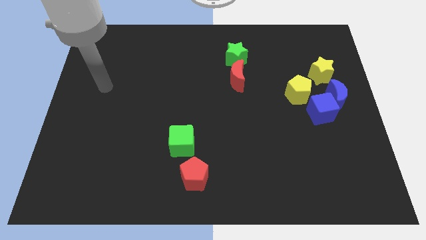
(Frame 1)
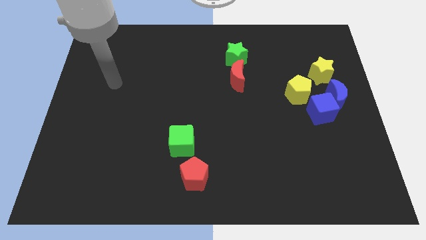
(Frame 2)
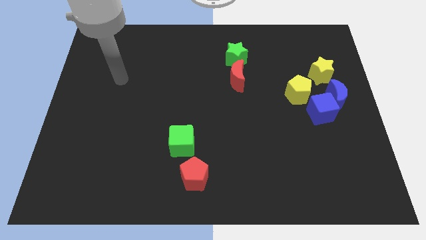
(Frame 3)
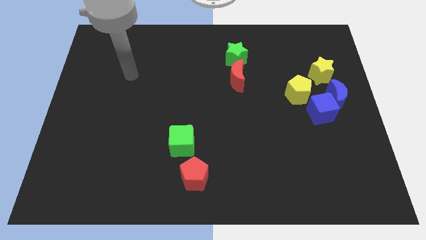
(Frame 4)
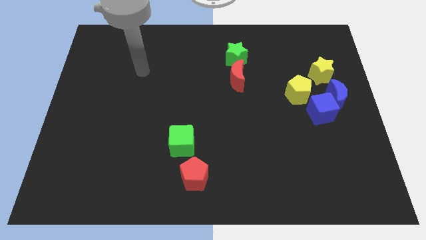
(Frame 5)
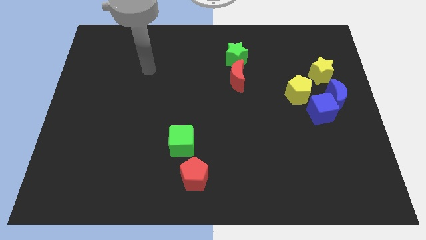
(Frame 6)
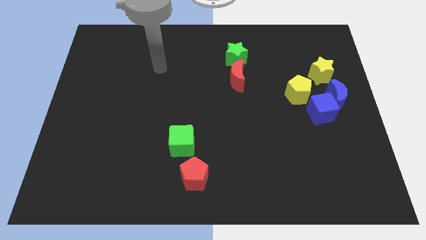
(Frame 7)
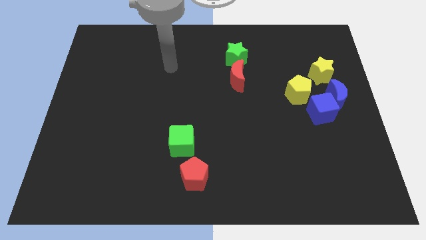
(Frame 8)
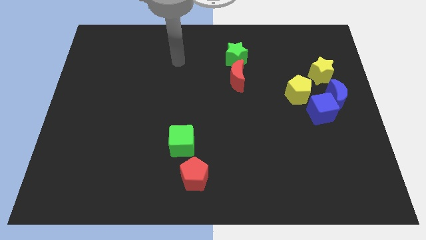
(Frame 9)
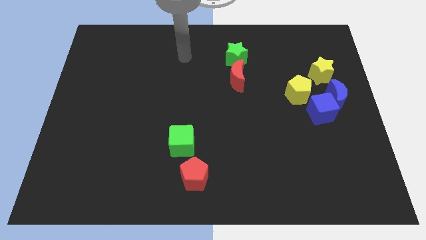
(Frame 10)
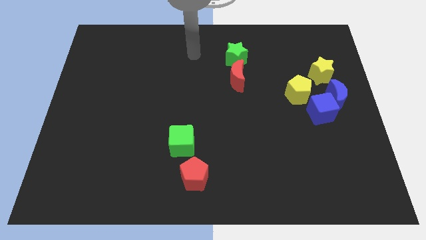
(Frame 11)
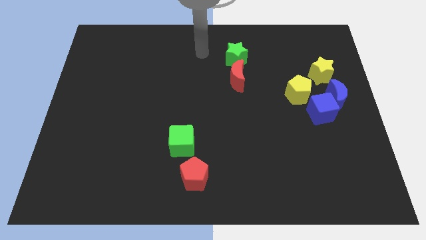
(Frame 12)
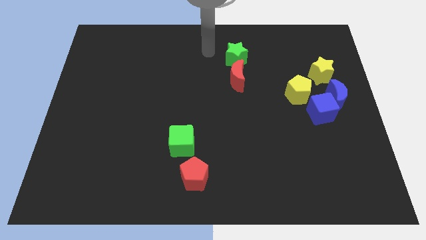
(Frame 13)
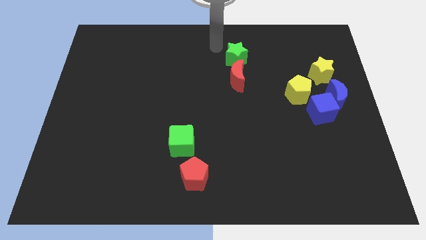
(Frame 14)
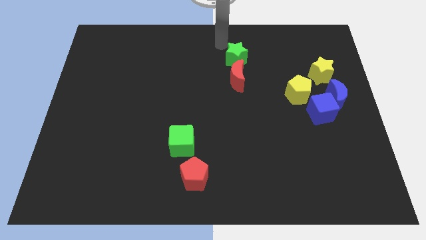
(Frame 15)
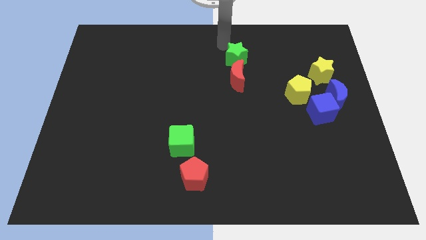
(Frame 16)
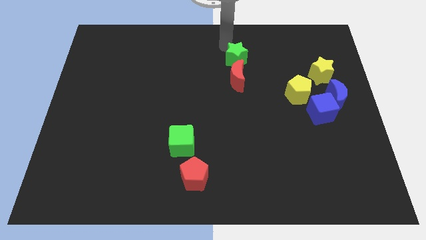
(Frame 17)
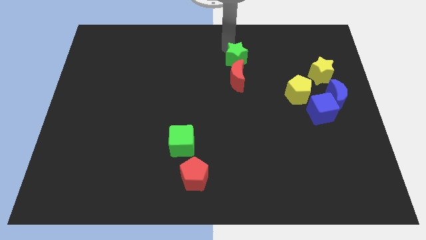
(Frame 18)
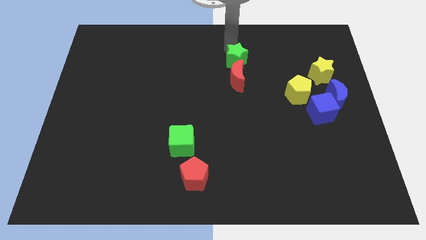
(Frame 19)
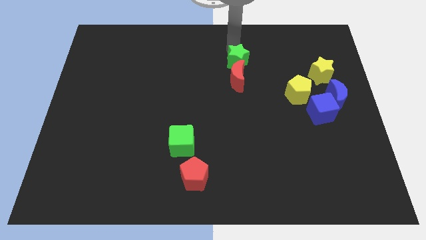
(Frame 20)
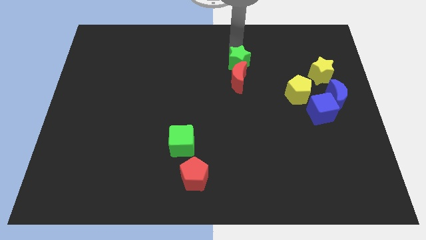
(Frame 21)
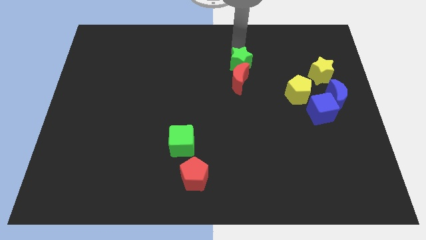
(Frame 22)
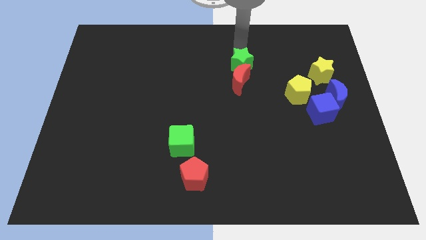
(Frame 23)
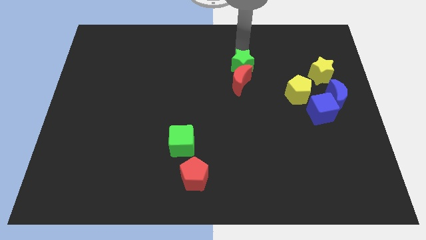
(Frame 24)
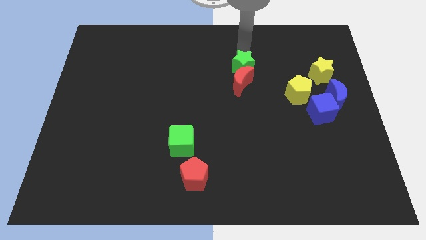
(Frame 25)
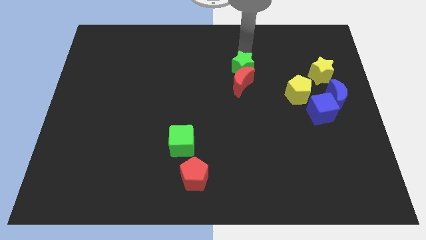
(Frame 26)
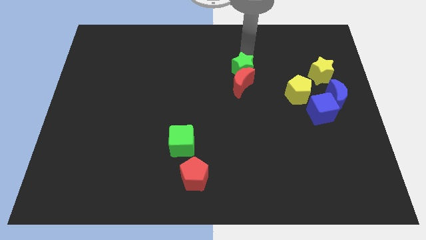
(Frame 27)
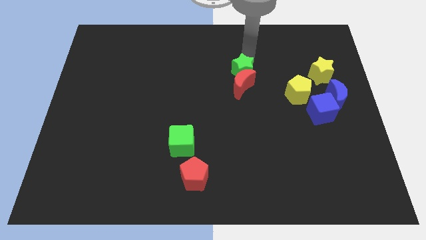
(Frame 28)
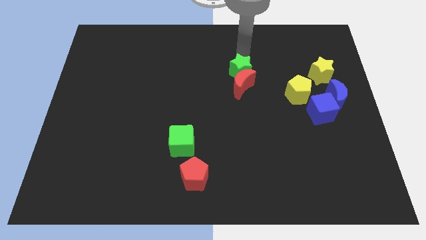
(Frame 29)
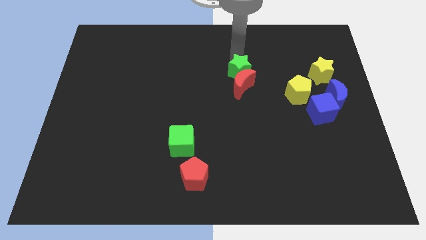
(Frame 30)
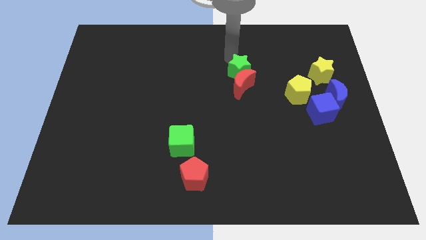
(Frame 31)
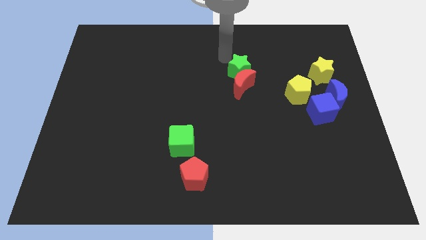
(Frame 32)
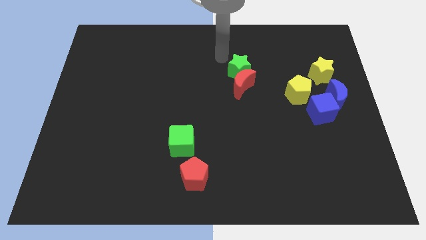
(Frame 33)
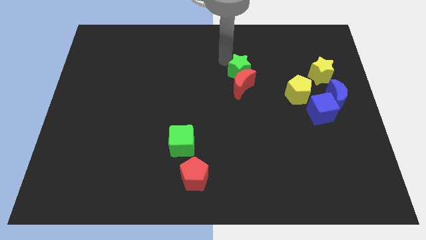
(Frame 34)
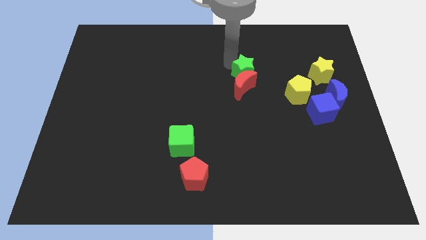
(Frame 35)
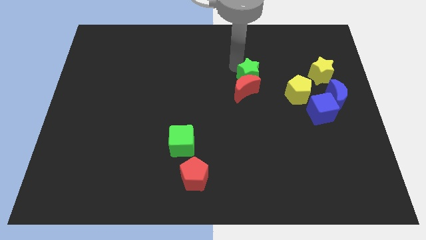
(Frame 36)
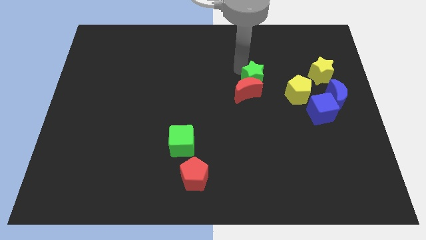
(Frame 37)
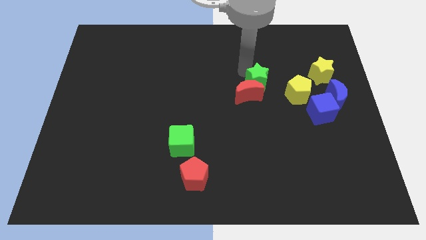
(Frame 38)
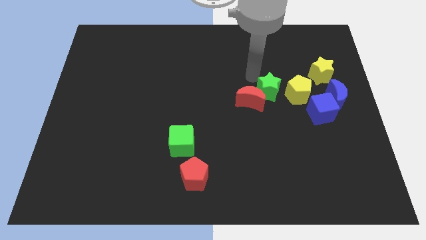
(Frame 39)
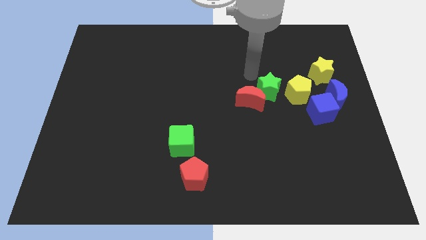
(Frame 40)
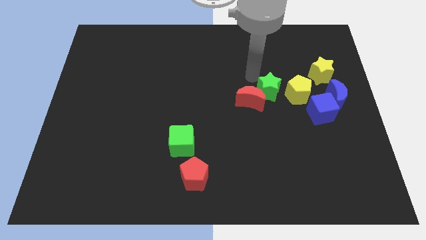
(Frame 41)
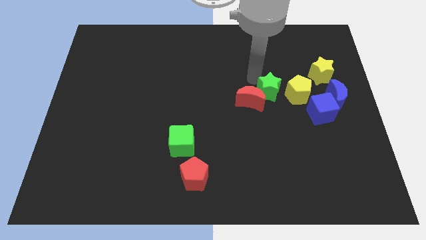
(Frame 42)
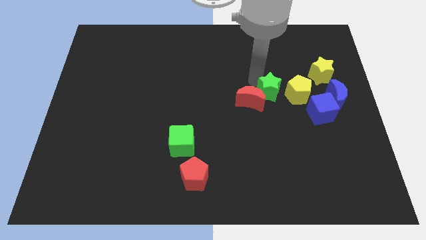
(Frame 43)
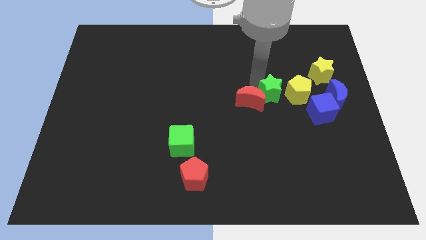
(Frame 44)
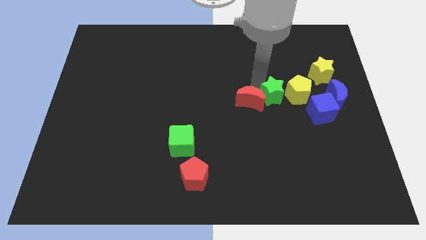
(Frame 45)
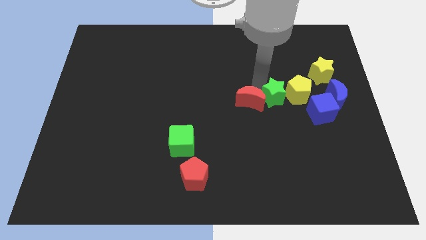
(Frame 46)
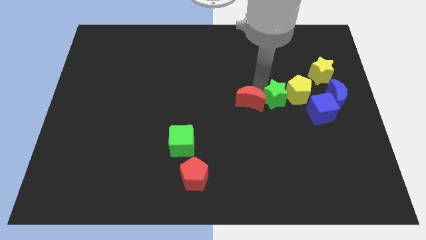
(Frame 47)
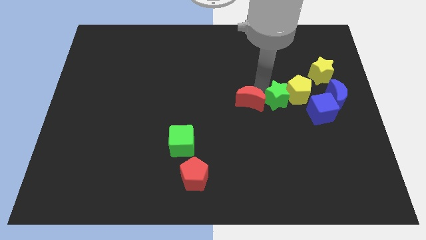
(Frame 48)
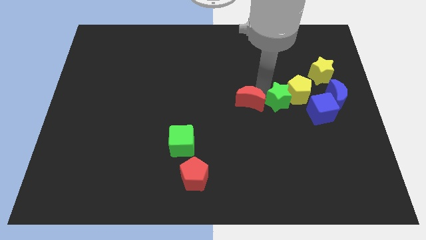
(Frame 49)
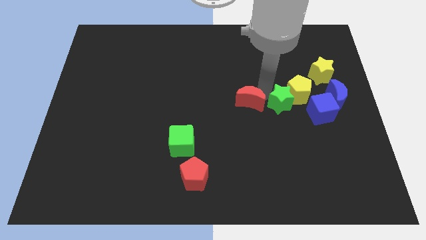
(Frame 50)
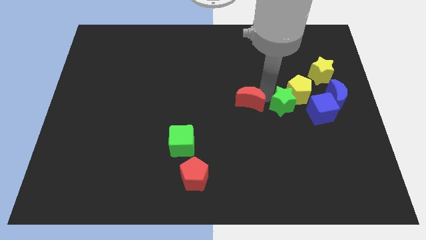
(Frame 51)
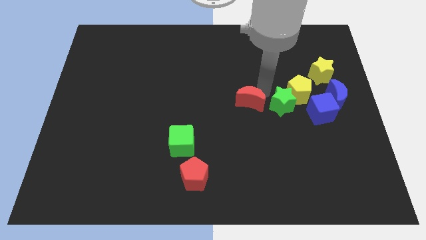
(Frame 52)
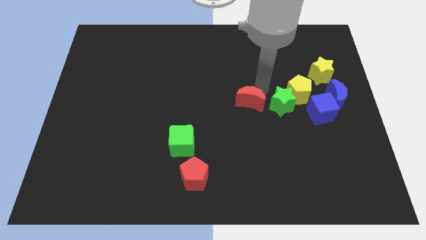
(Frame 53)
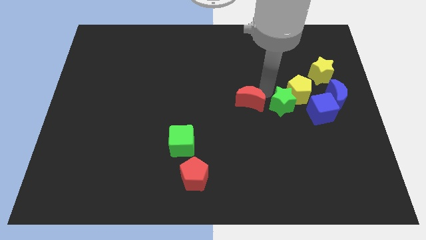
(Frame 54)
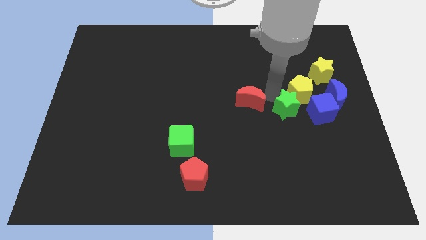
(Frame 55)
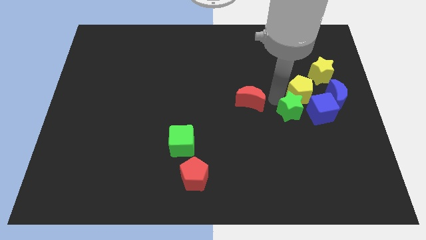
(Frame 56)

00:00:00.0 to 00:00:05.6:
move the green star diagonally down and right

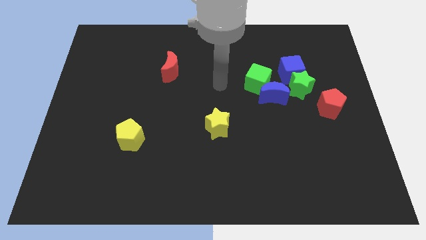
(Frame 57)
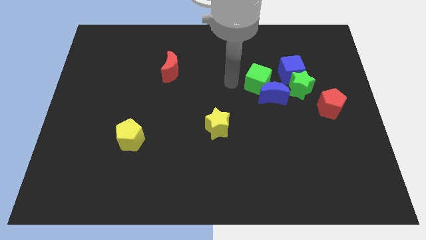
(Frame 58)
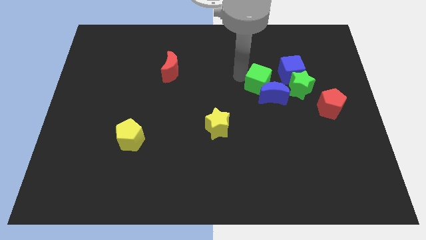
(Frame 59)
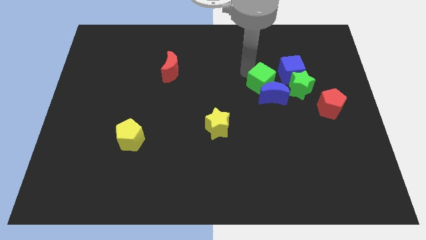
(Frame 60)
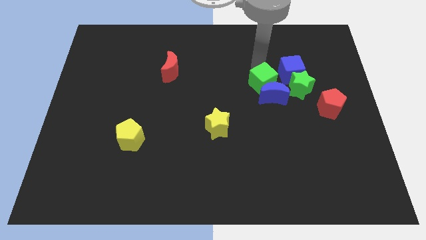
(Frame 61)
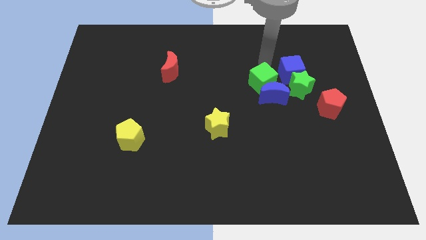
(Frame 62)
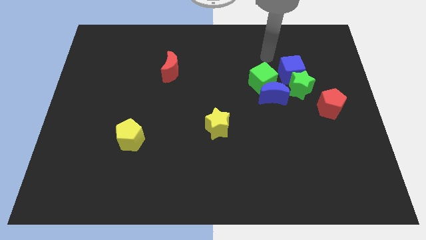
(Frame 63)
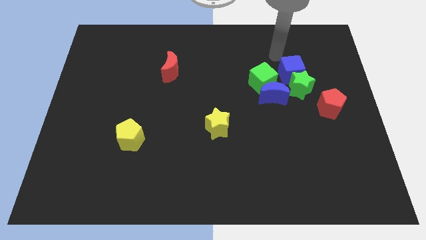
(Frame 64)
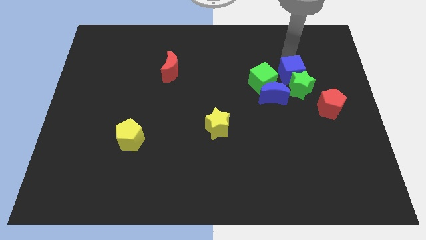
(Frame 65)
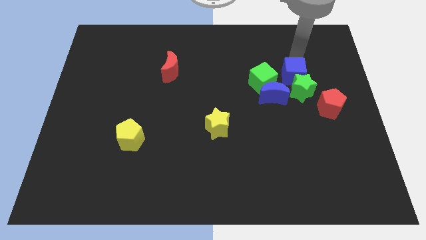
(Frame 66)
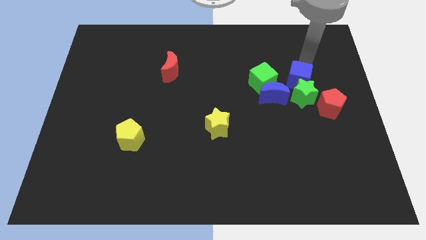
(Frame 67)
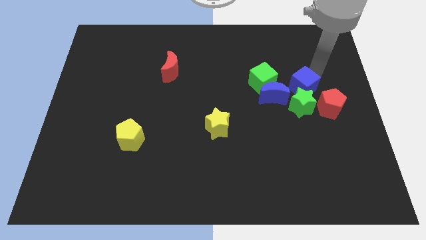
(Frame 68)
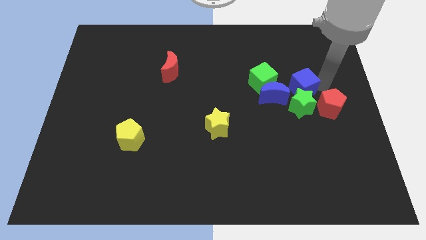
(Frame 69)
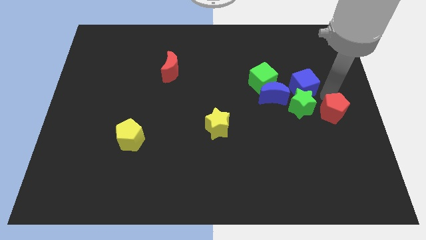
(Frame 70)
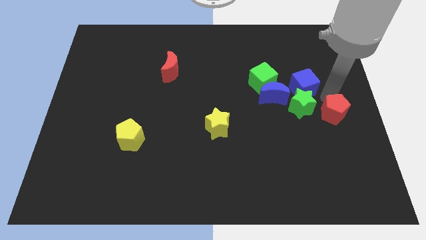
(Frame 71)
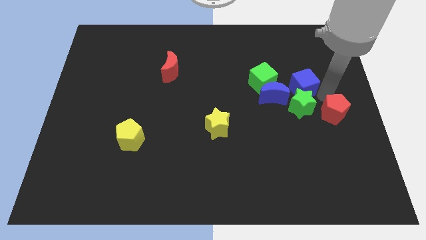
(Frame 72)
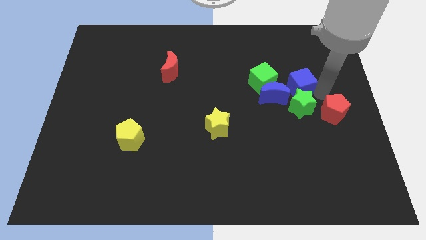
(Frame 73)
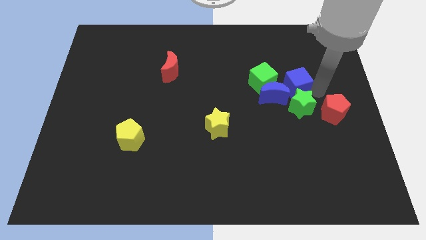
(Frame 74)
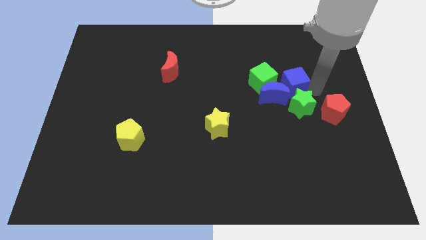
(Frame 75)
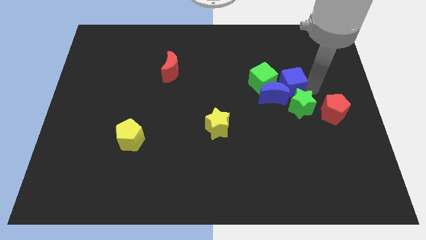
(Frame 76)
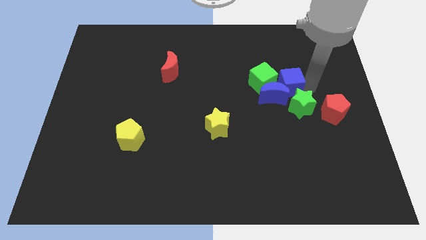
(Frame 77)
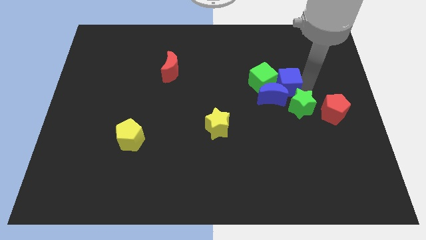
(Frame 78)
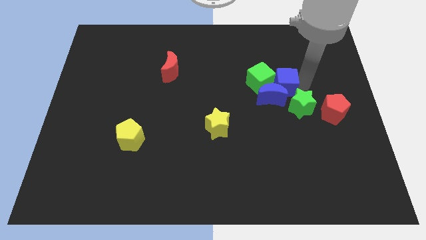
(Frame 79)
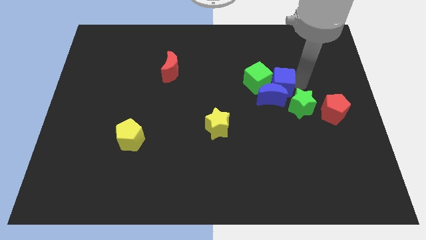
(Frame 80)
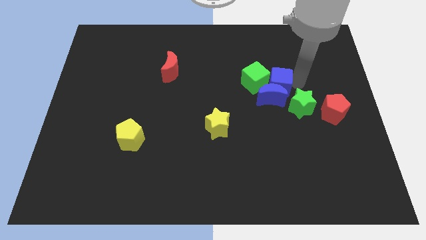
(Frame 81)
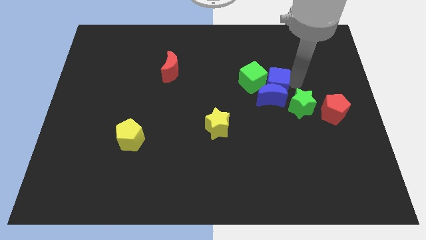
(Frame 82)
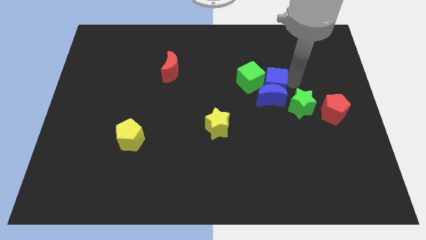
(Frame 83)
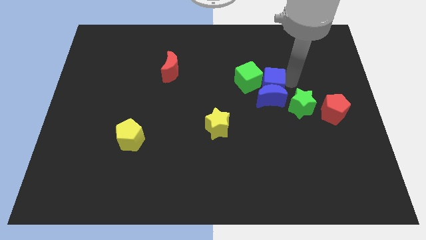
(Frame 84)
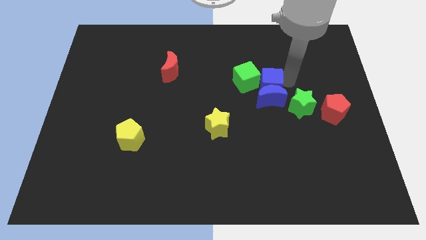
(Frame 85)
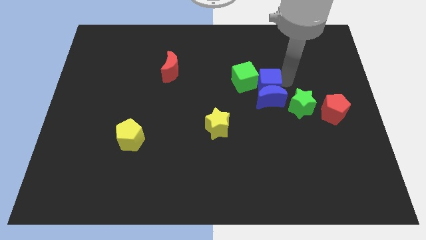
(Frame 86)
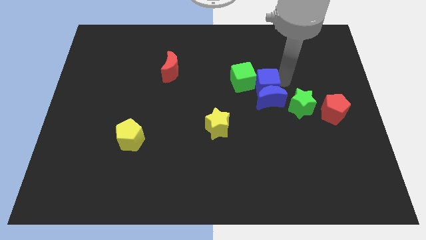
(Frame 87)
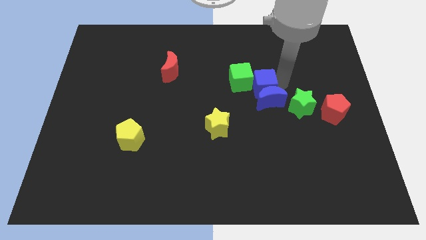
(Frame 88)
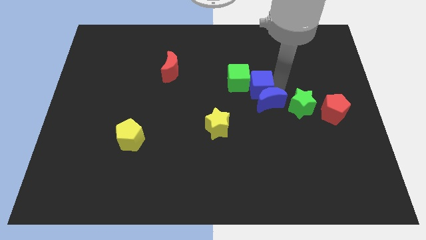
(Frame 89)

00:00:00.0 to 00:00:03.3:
slightly push the blue cube left

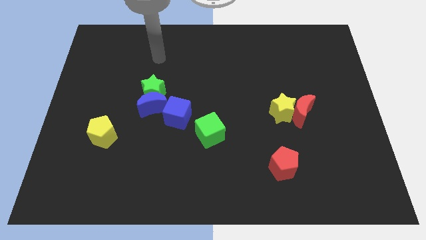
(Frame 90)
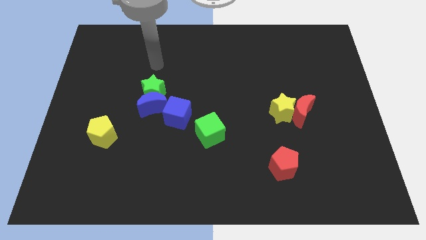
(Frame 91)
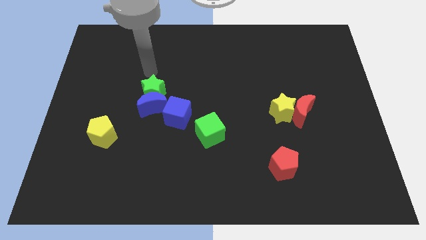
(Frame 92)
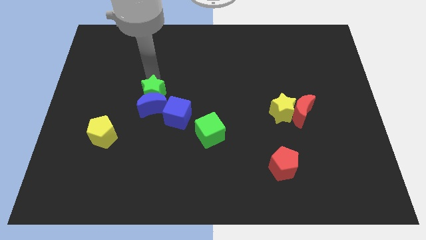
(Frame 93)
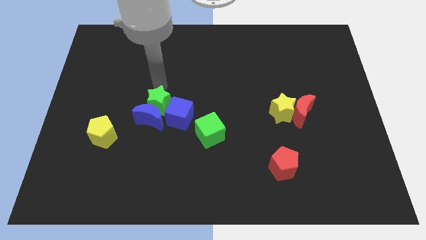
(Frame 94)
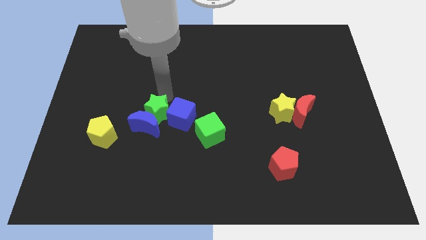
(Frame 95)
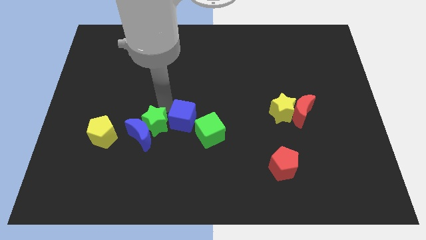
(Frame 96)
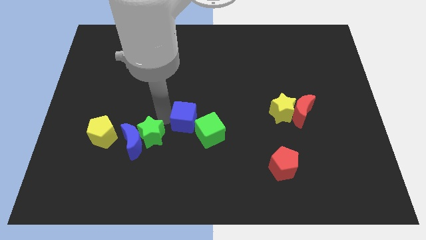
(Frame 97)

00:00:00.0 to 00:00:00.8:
slide the blue moon downwards and to the left diagonally a bit
